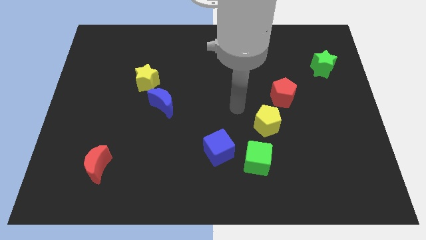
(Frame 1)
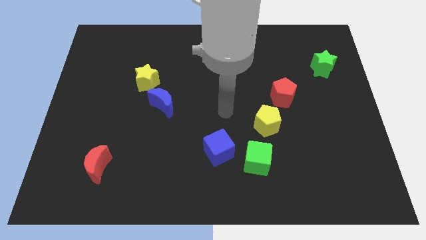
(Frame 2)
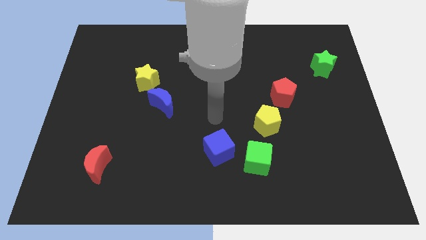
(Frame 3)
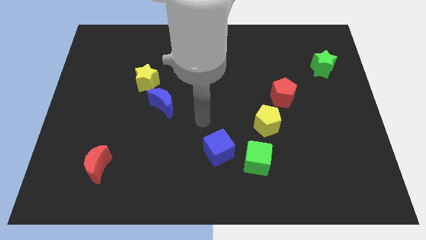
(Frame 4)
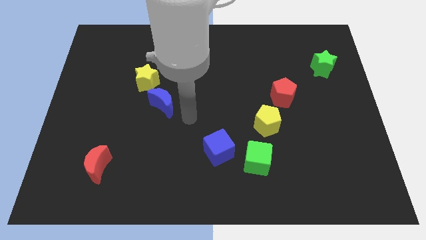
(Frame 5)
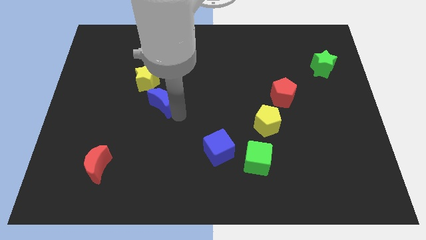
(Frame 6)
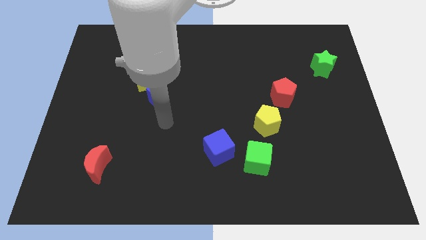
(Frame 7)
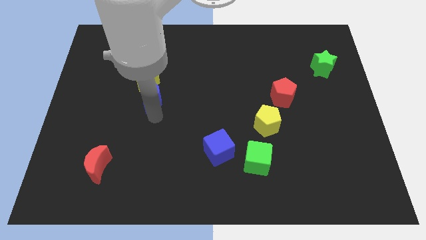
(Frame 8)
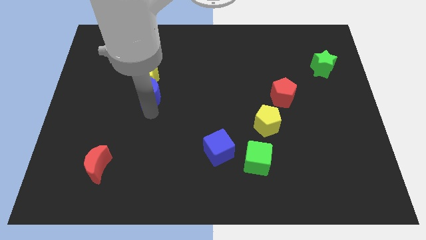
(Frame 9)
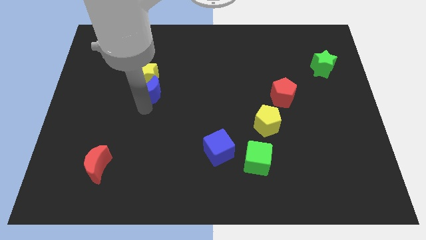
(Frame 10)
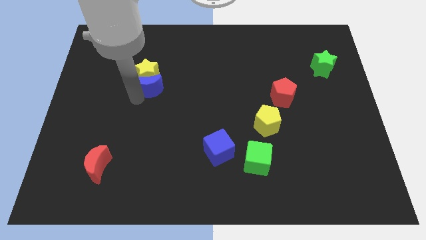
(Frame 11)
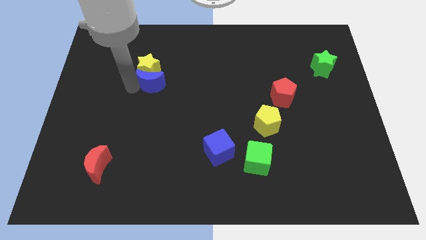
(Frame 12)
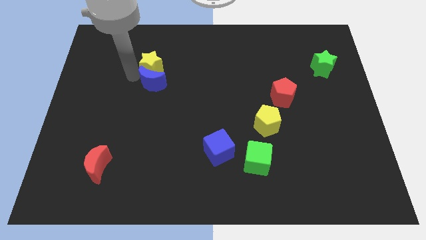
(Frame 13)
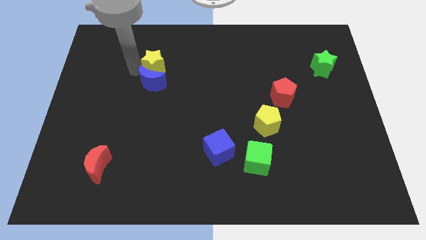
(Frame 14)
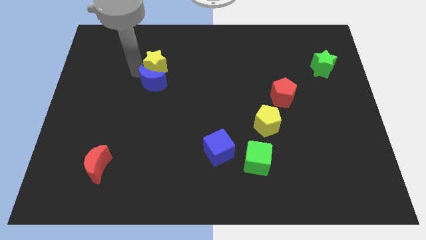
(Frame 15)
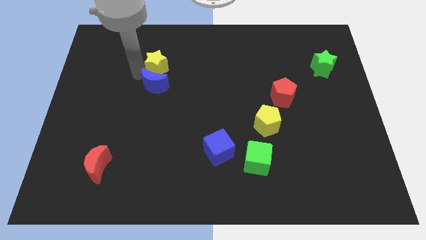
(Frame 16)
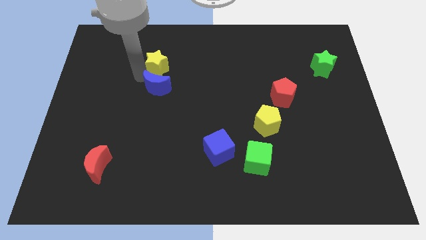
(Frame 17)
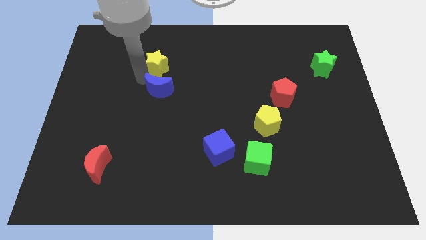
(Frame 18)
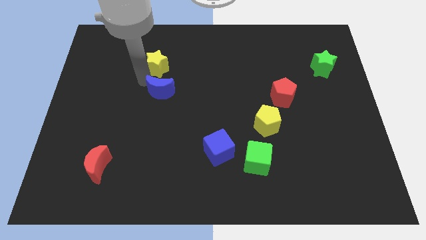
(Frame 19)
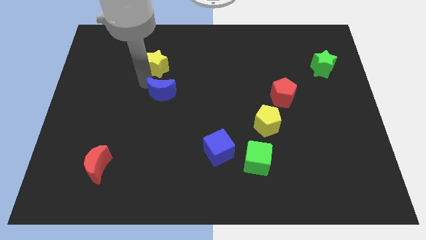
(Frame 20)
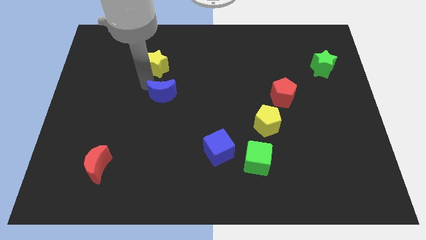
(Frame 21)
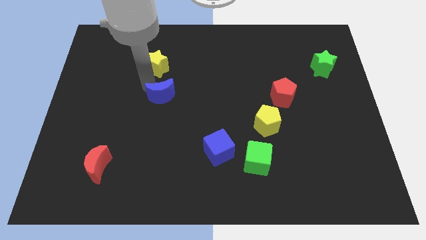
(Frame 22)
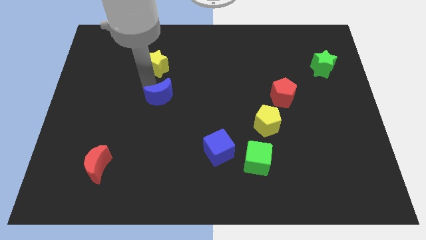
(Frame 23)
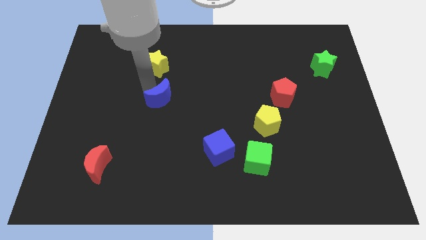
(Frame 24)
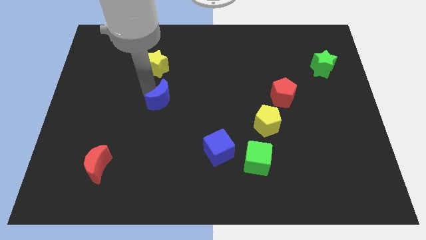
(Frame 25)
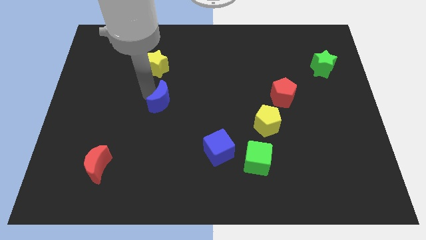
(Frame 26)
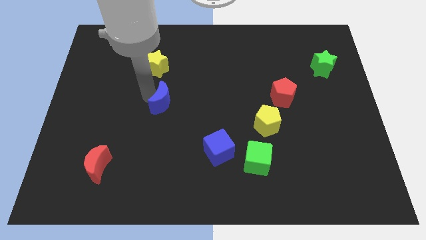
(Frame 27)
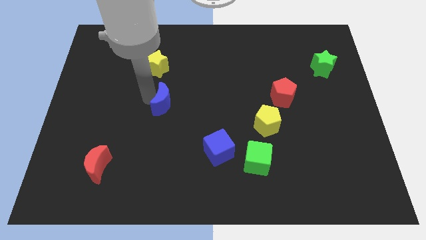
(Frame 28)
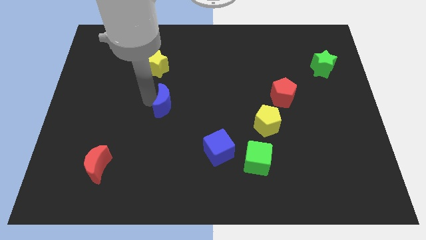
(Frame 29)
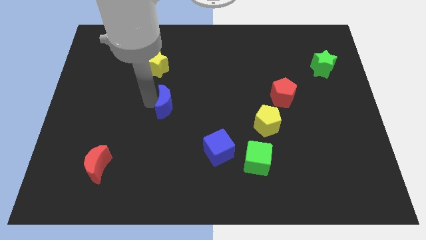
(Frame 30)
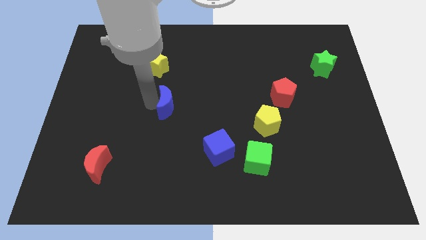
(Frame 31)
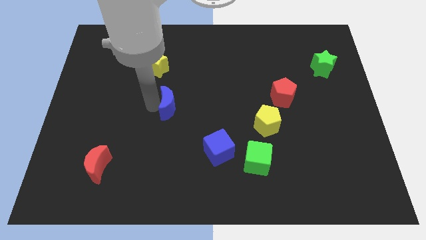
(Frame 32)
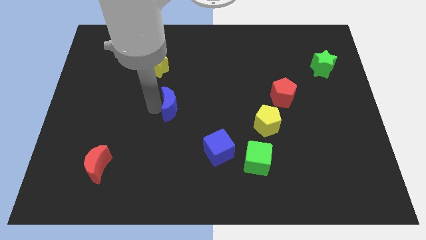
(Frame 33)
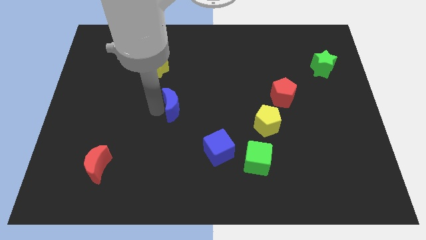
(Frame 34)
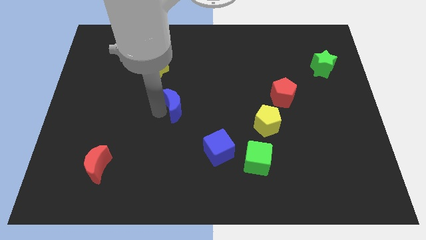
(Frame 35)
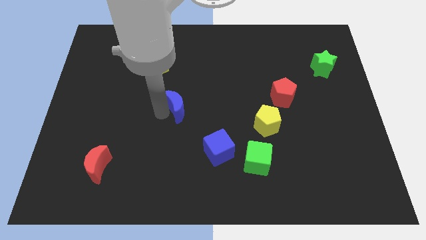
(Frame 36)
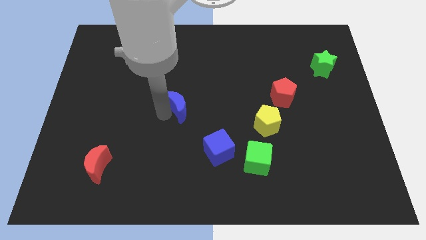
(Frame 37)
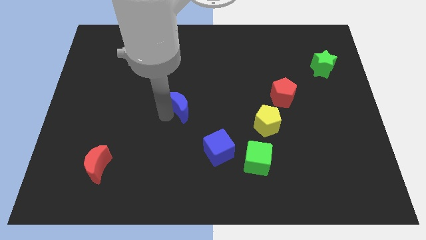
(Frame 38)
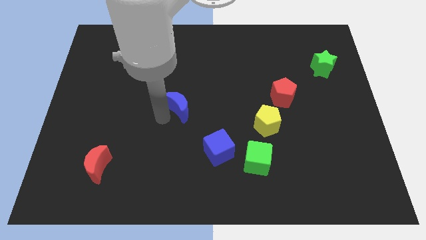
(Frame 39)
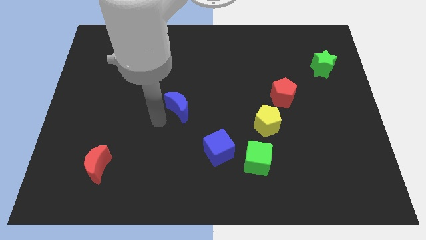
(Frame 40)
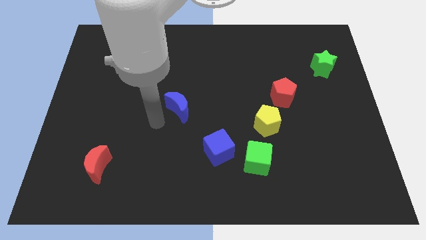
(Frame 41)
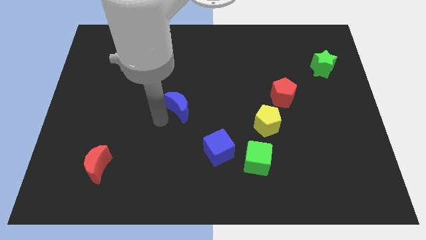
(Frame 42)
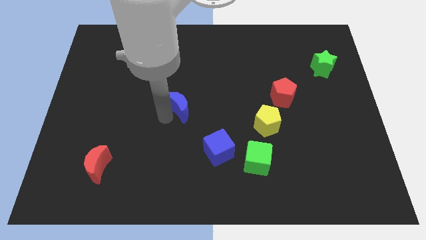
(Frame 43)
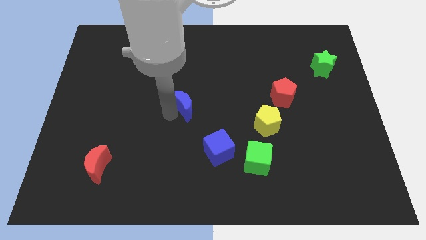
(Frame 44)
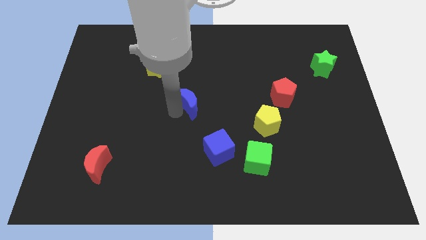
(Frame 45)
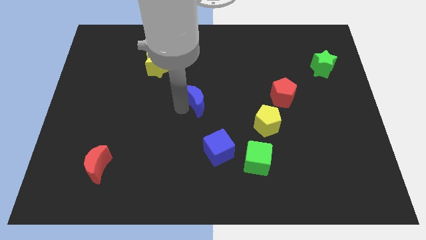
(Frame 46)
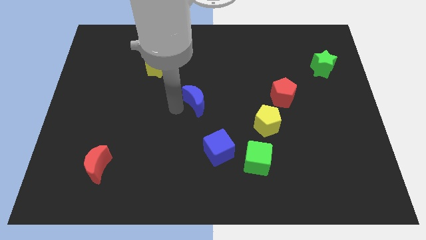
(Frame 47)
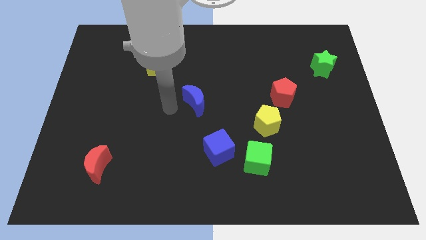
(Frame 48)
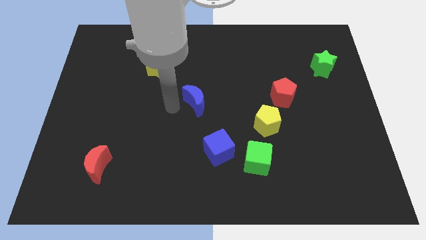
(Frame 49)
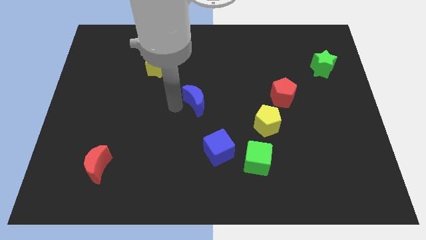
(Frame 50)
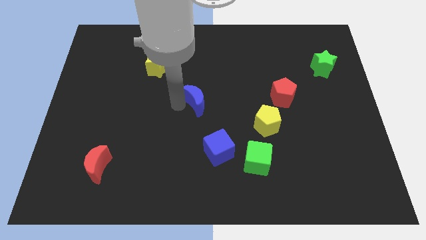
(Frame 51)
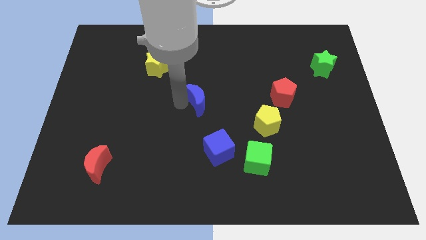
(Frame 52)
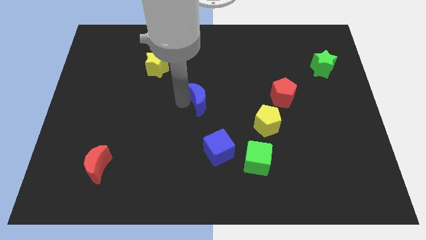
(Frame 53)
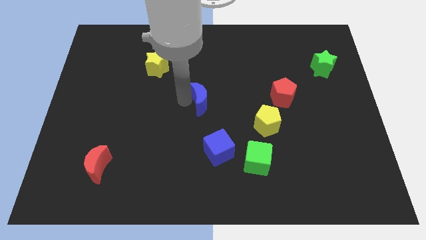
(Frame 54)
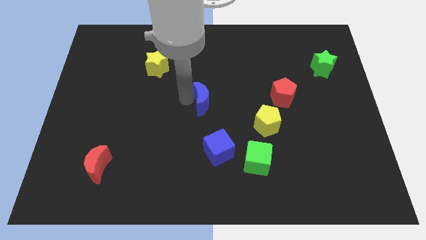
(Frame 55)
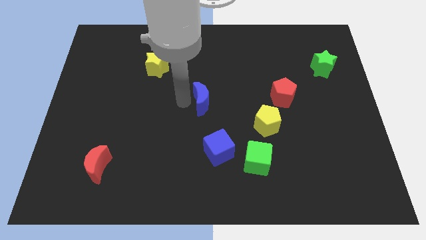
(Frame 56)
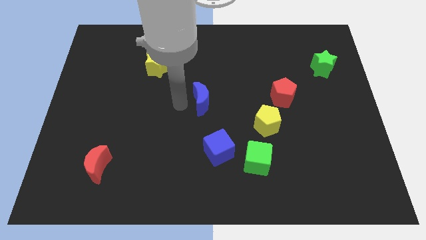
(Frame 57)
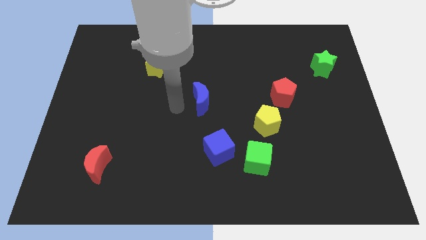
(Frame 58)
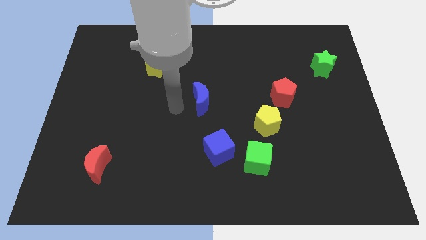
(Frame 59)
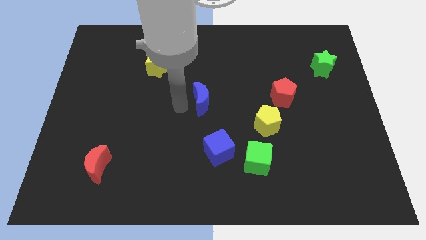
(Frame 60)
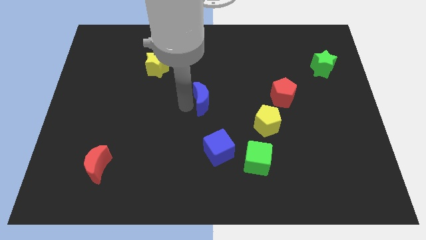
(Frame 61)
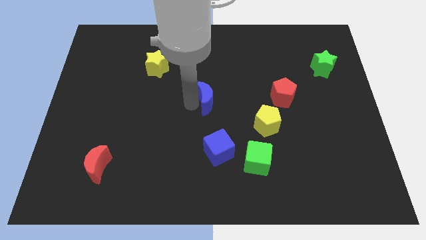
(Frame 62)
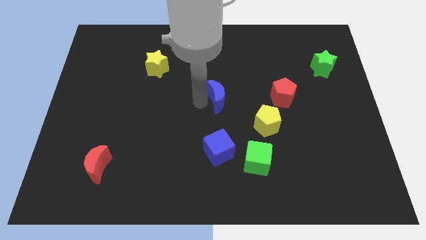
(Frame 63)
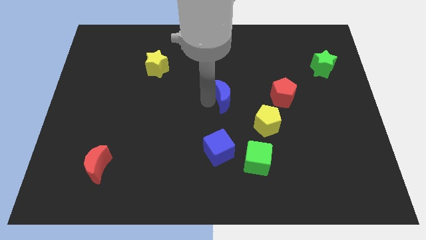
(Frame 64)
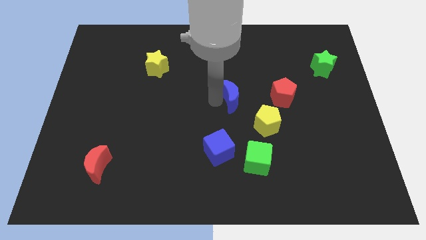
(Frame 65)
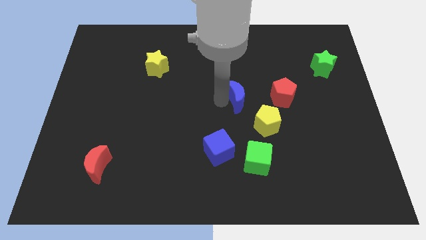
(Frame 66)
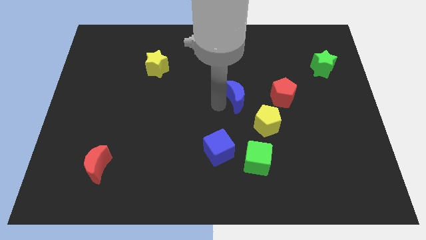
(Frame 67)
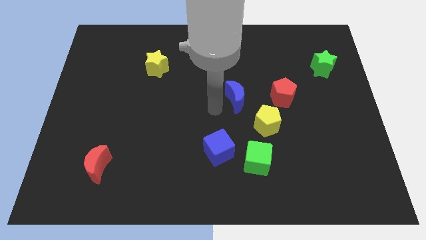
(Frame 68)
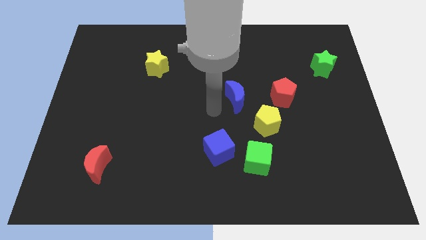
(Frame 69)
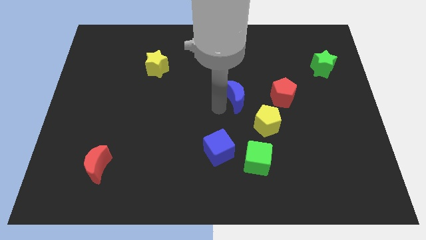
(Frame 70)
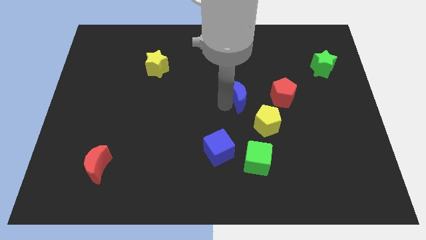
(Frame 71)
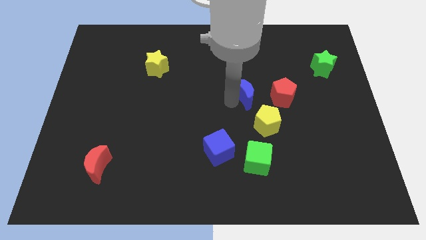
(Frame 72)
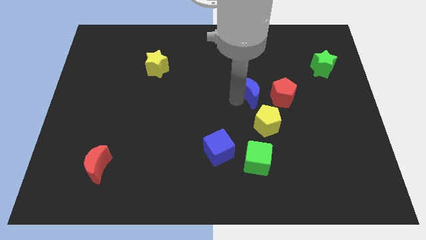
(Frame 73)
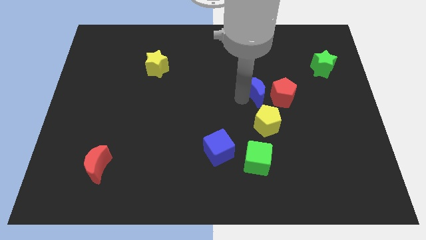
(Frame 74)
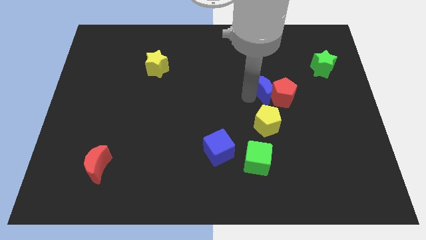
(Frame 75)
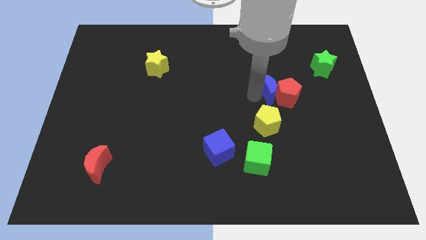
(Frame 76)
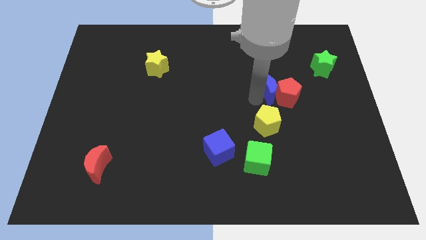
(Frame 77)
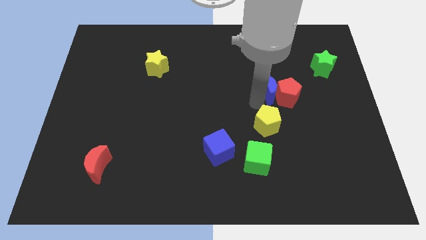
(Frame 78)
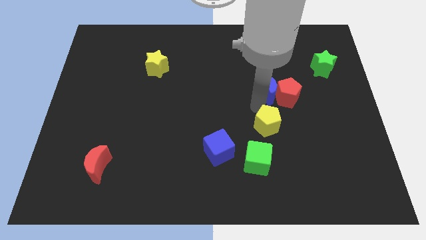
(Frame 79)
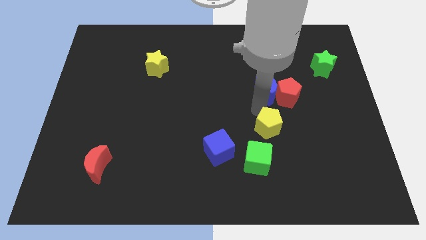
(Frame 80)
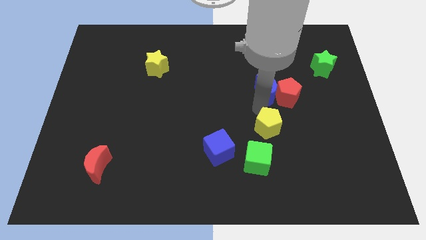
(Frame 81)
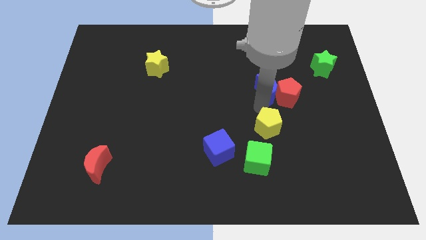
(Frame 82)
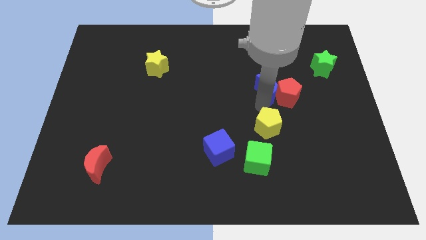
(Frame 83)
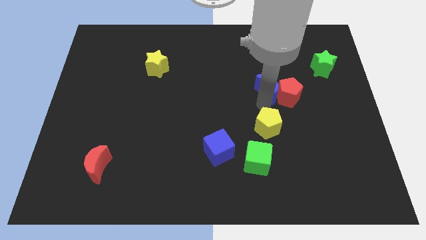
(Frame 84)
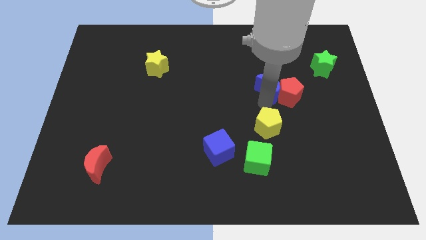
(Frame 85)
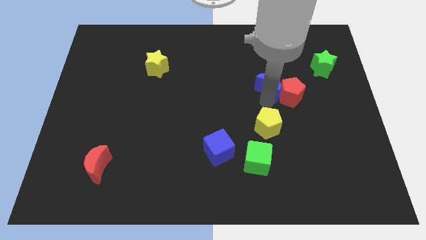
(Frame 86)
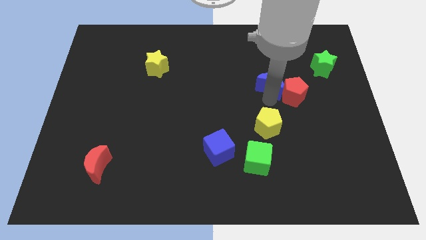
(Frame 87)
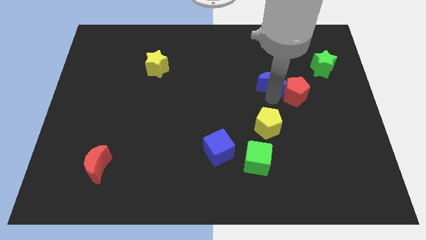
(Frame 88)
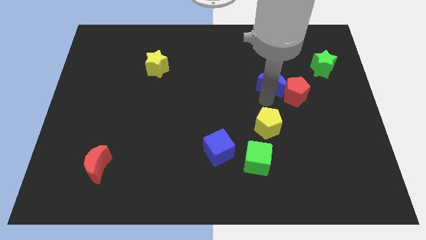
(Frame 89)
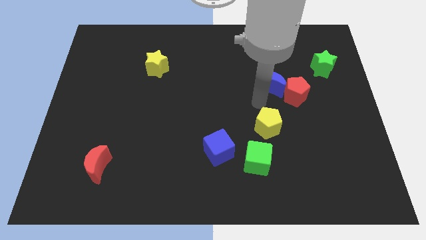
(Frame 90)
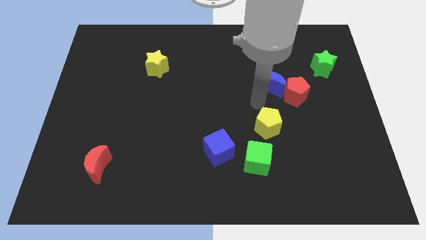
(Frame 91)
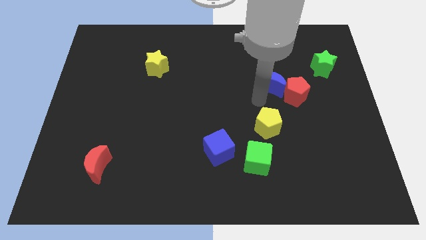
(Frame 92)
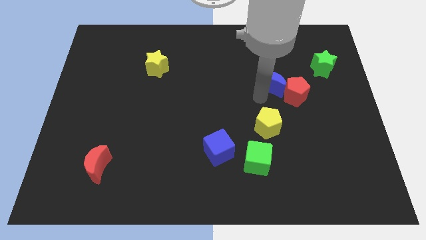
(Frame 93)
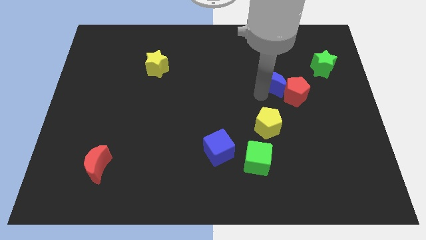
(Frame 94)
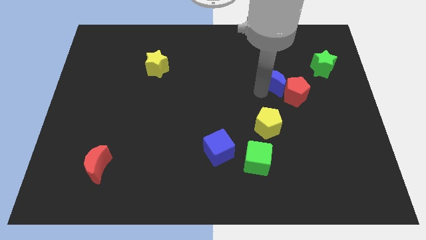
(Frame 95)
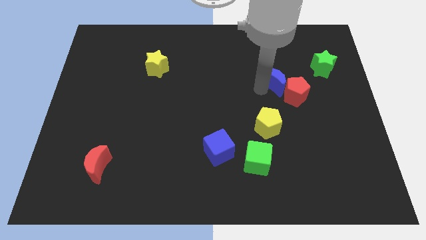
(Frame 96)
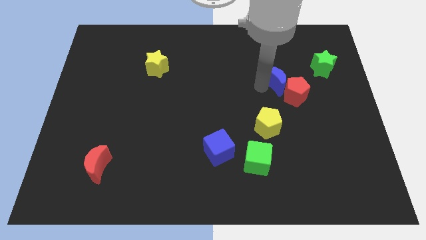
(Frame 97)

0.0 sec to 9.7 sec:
push the blue moon to the top of the red pentagon
